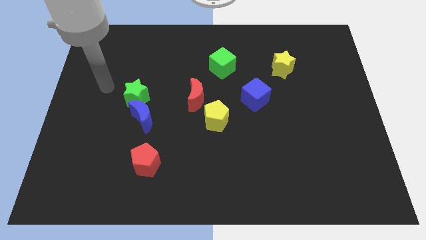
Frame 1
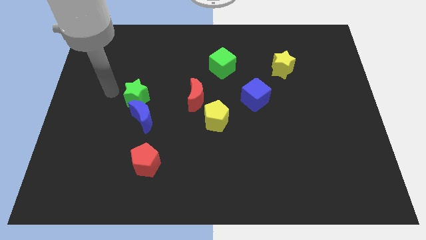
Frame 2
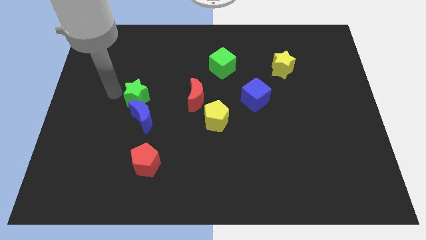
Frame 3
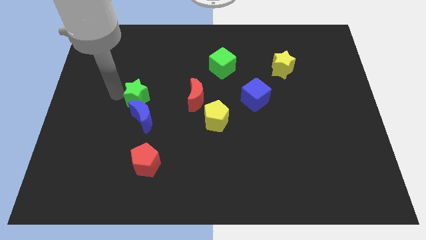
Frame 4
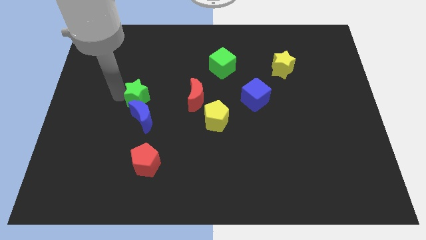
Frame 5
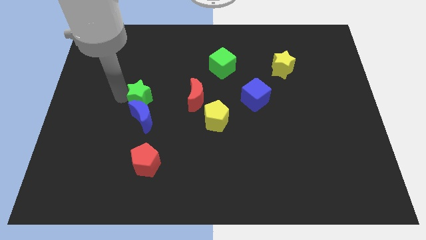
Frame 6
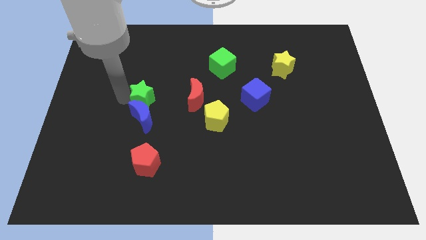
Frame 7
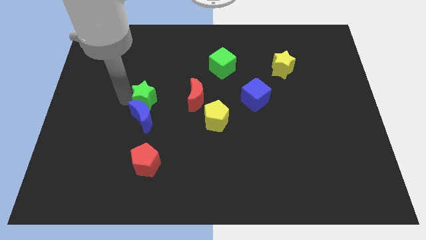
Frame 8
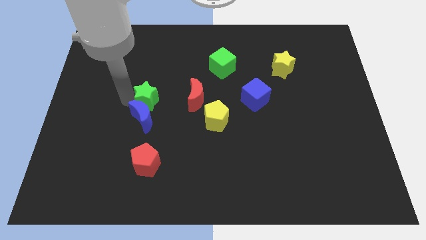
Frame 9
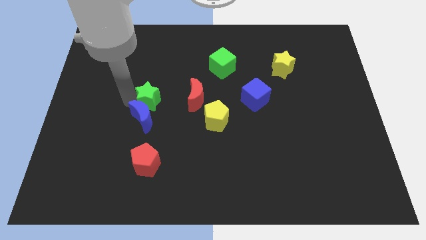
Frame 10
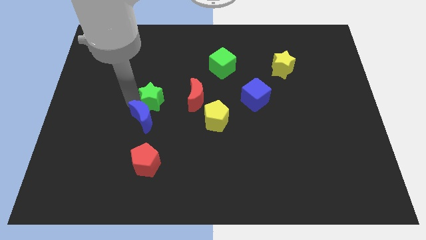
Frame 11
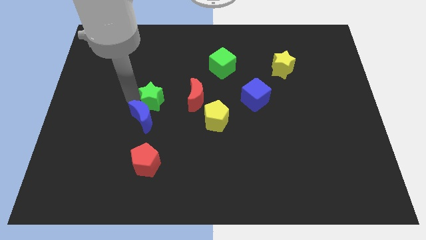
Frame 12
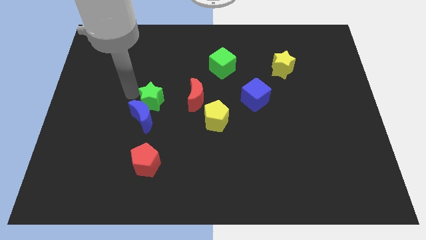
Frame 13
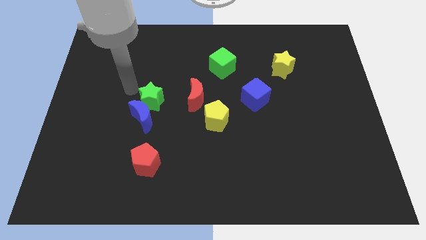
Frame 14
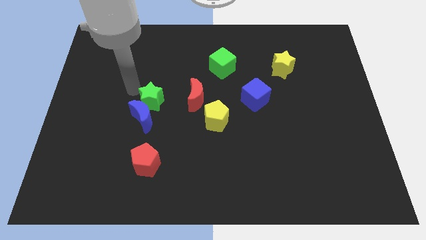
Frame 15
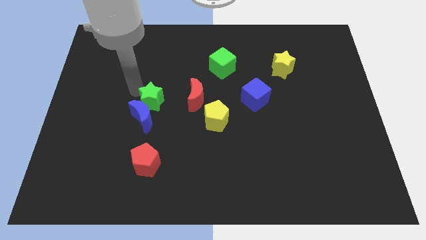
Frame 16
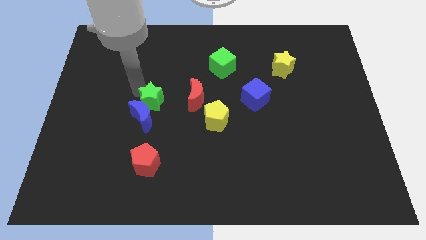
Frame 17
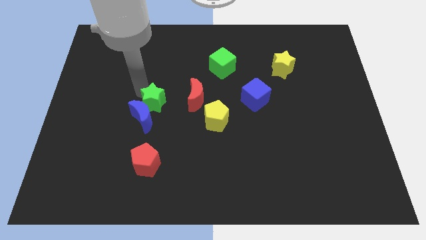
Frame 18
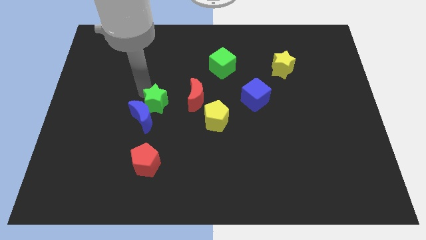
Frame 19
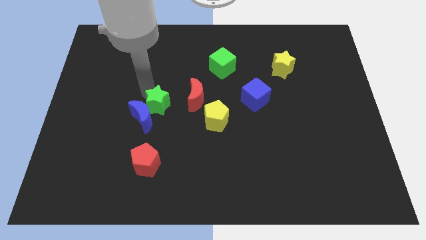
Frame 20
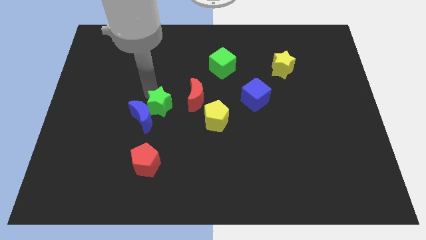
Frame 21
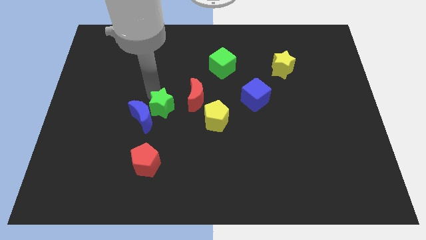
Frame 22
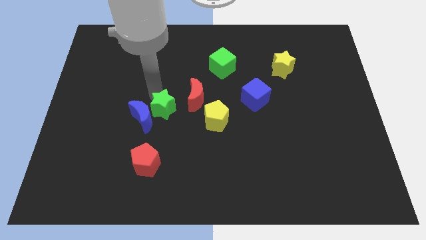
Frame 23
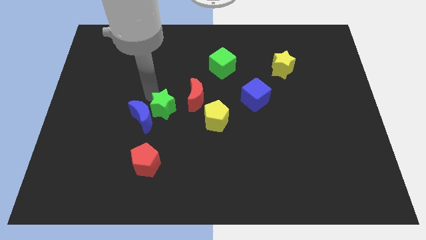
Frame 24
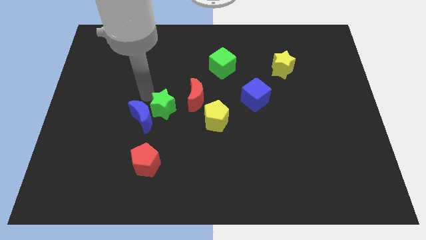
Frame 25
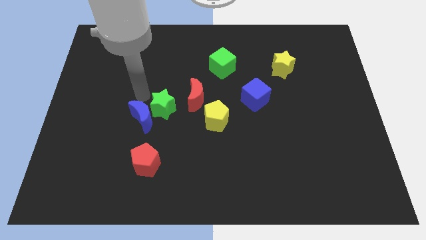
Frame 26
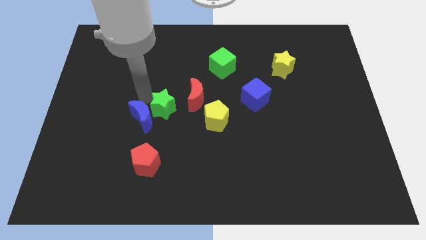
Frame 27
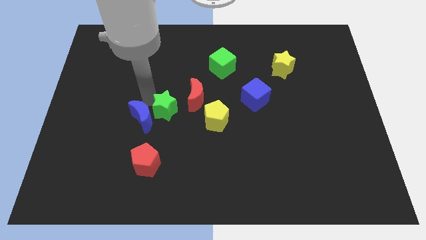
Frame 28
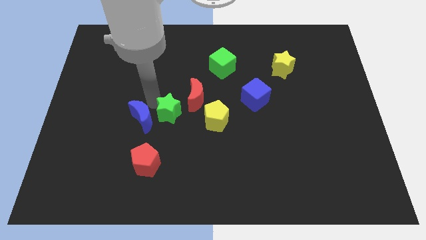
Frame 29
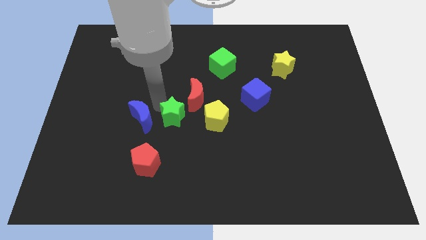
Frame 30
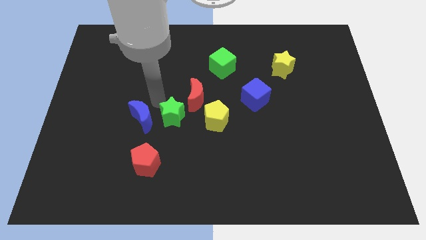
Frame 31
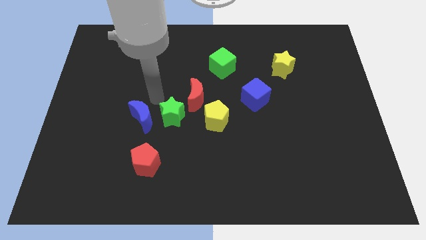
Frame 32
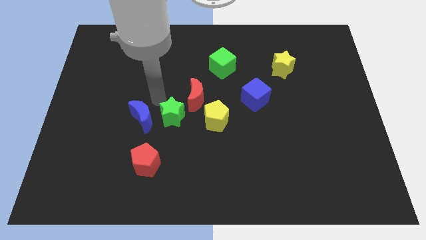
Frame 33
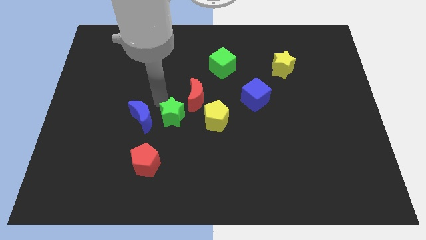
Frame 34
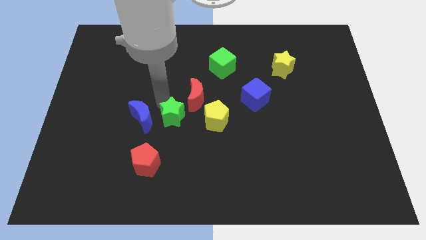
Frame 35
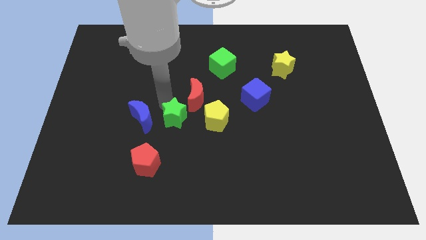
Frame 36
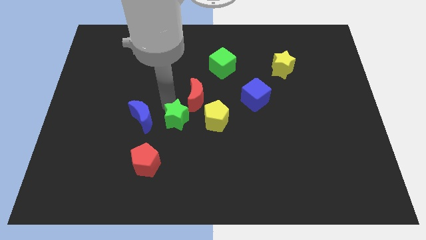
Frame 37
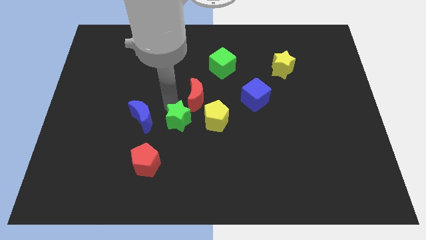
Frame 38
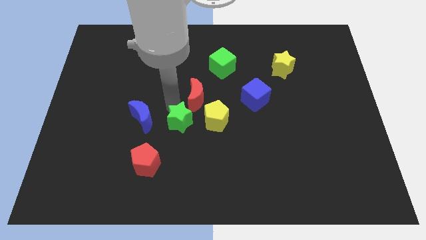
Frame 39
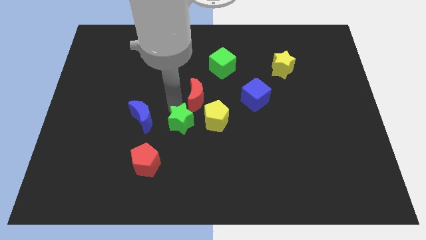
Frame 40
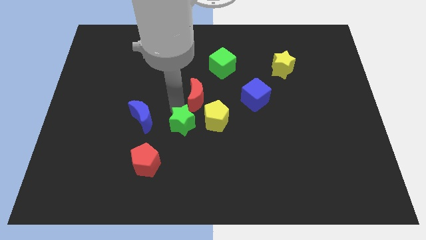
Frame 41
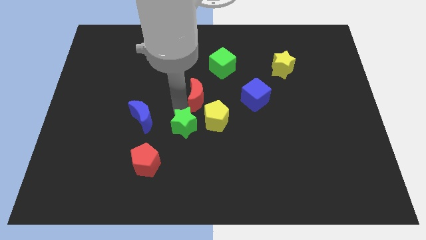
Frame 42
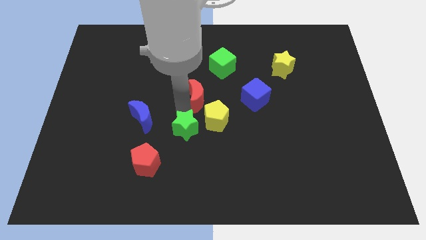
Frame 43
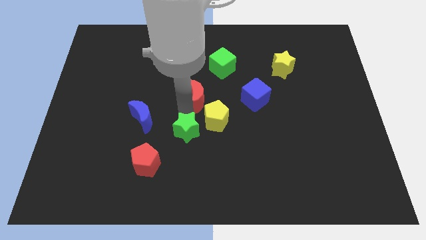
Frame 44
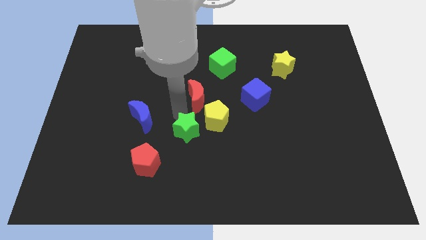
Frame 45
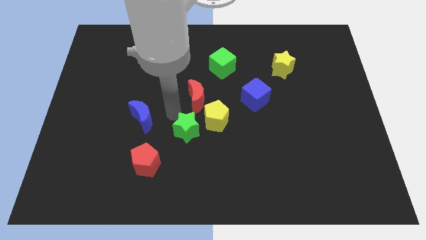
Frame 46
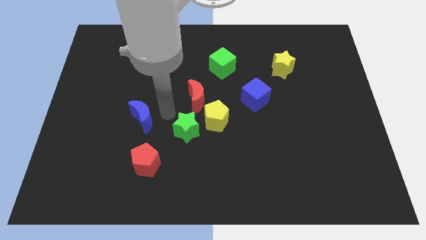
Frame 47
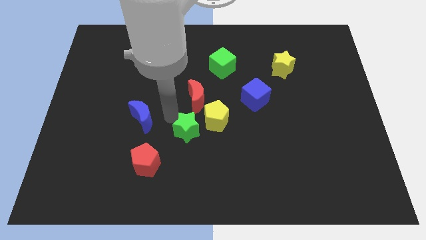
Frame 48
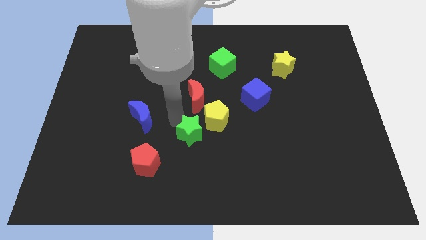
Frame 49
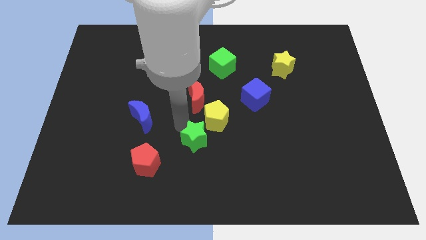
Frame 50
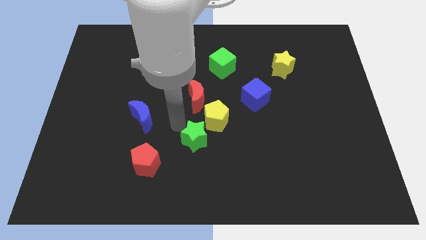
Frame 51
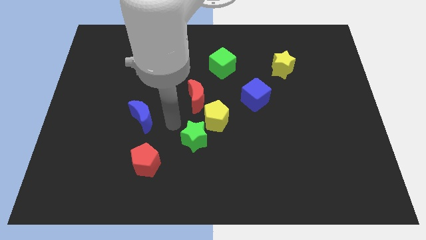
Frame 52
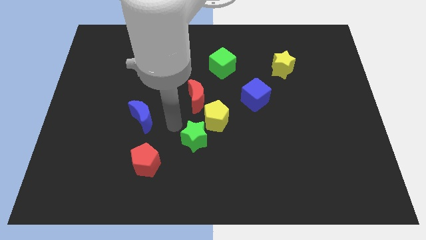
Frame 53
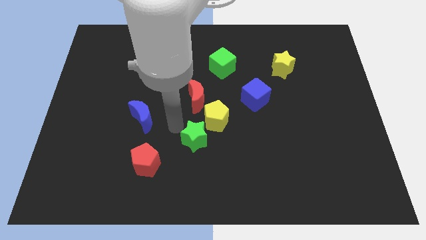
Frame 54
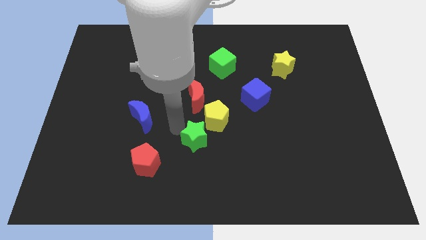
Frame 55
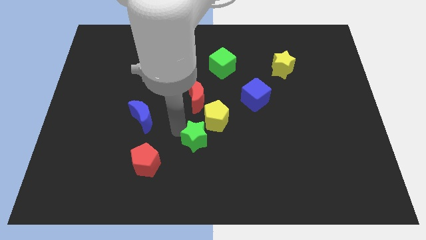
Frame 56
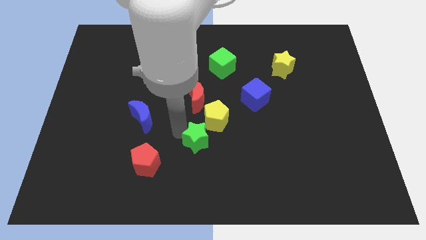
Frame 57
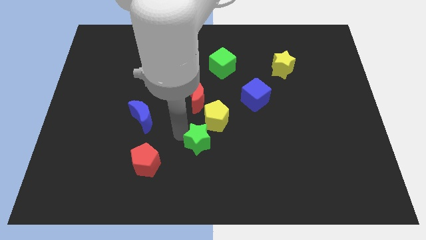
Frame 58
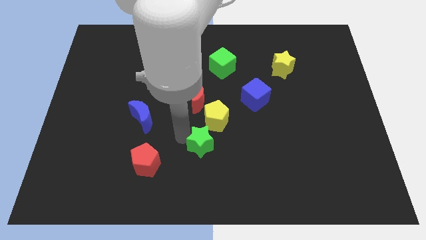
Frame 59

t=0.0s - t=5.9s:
push the green star downwards and right diagonally

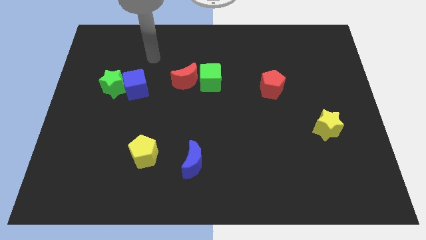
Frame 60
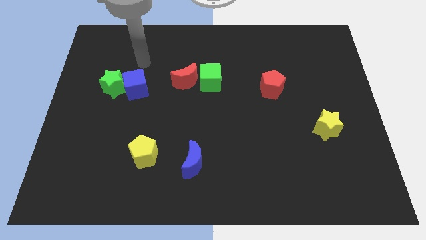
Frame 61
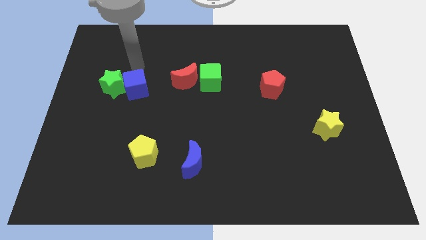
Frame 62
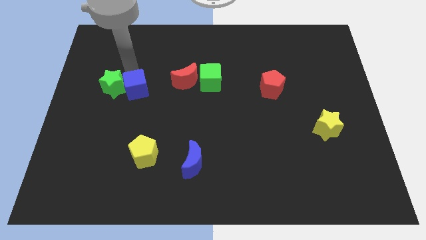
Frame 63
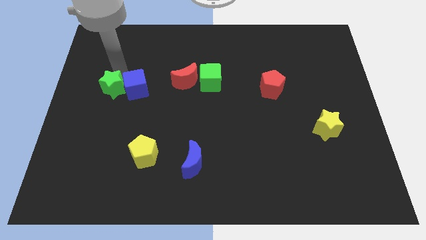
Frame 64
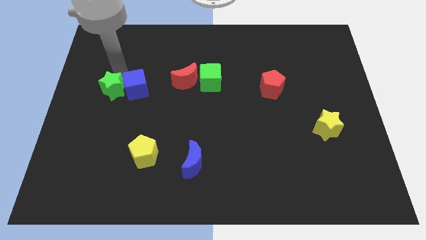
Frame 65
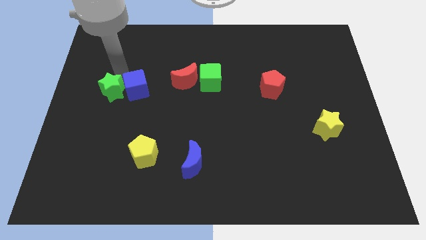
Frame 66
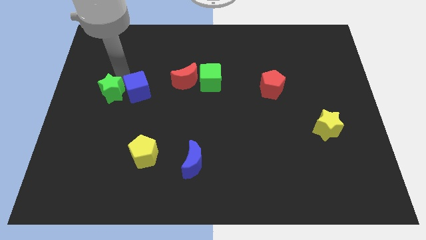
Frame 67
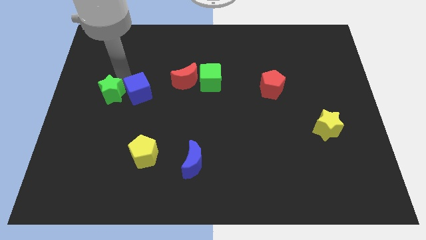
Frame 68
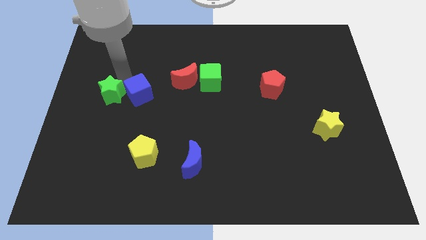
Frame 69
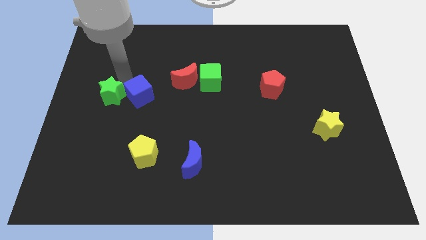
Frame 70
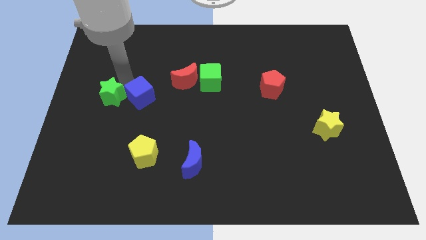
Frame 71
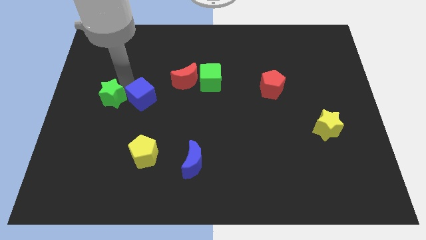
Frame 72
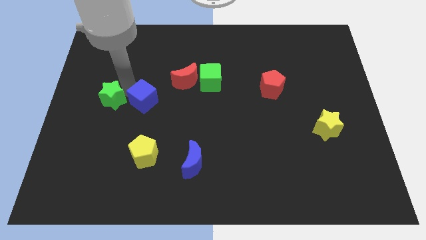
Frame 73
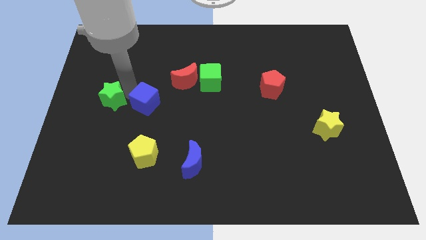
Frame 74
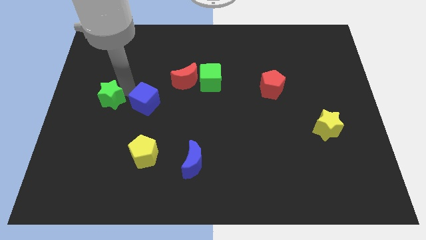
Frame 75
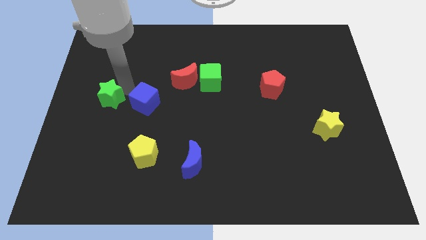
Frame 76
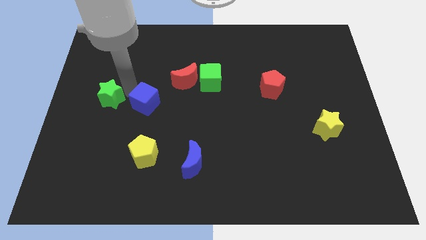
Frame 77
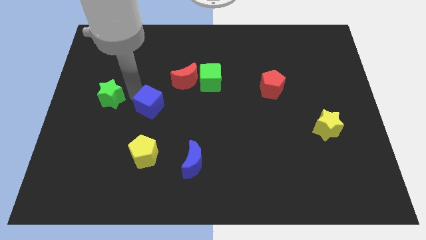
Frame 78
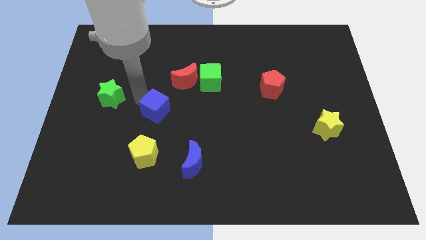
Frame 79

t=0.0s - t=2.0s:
move the blue cube a little bit downwards and then to the right

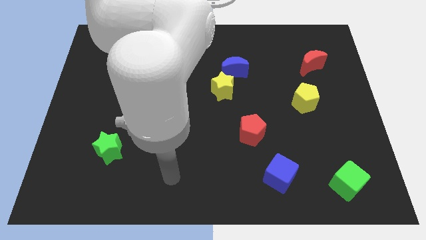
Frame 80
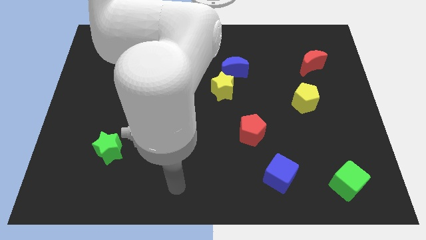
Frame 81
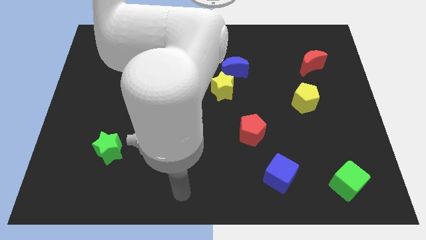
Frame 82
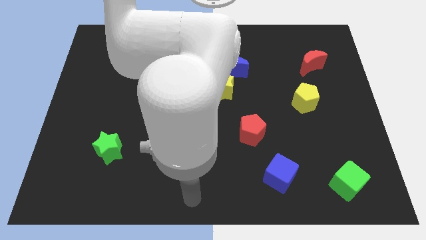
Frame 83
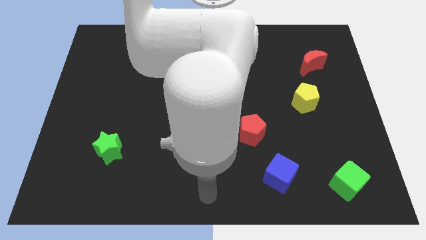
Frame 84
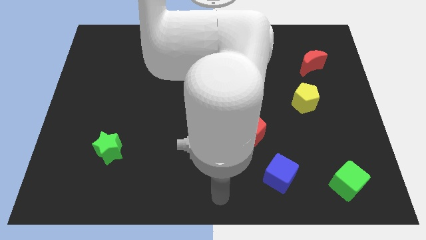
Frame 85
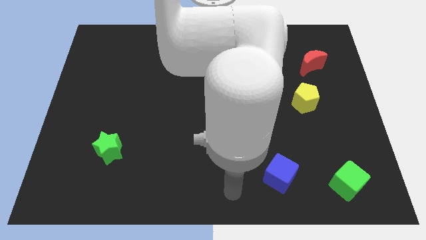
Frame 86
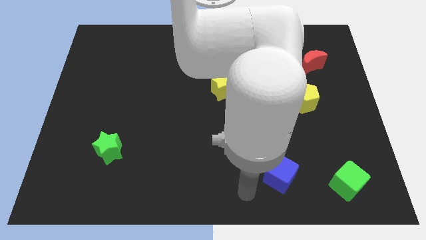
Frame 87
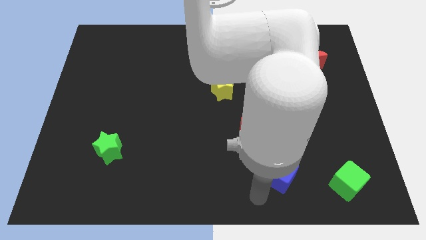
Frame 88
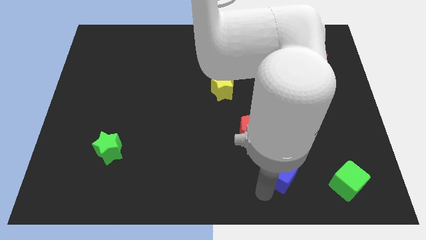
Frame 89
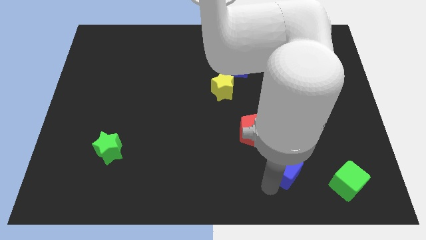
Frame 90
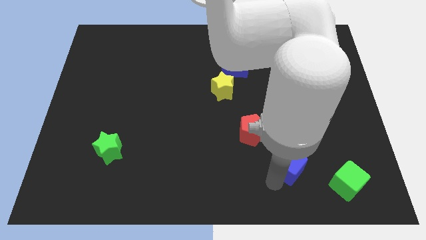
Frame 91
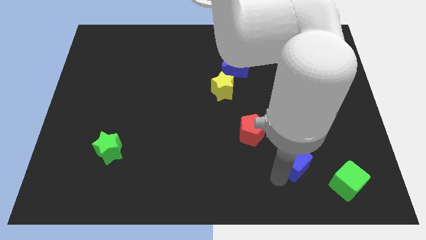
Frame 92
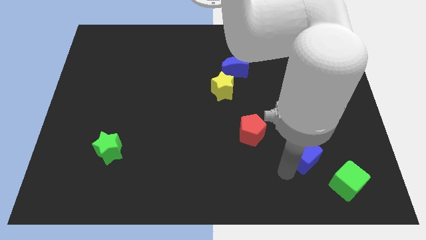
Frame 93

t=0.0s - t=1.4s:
slightly push the blue cube upwards and then right
